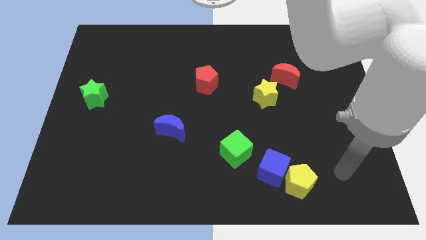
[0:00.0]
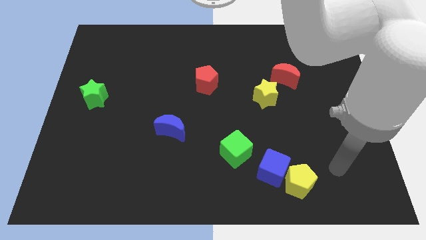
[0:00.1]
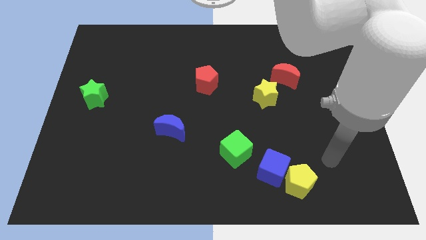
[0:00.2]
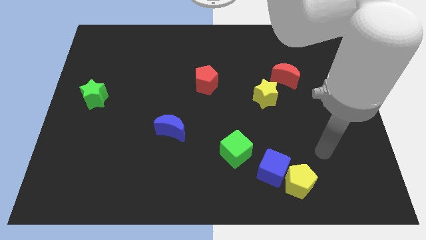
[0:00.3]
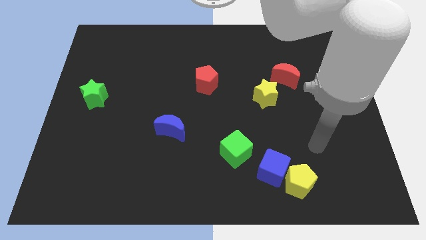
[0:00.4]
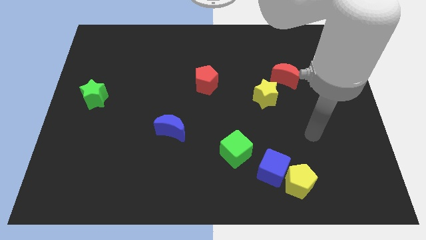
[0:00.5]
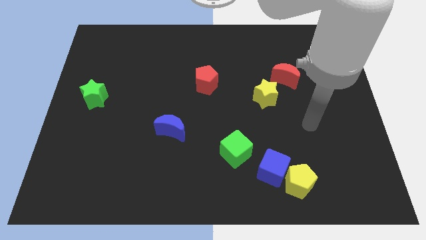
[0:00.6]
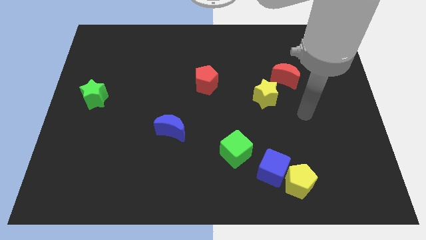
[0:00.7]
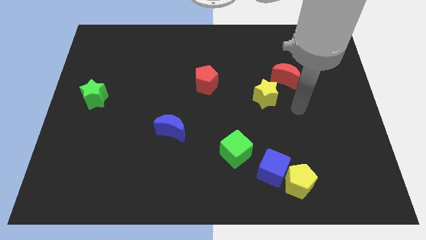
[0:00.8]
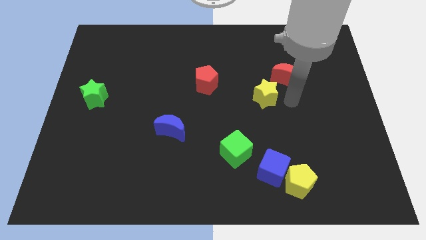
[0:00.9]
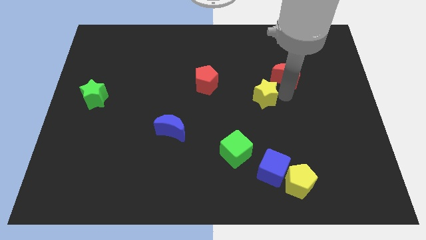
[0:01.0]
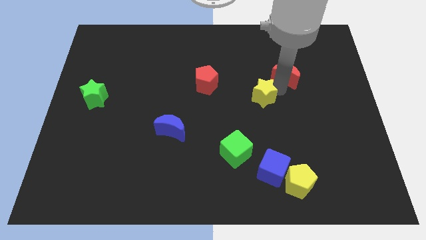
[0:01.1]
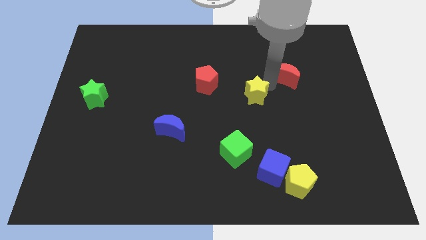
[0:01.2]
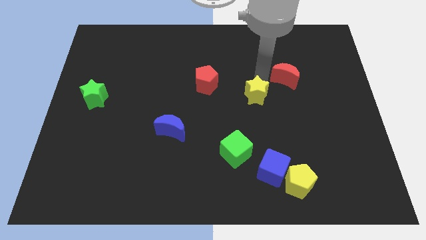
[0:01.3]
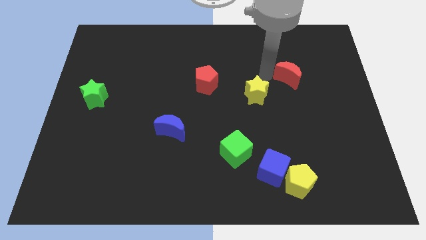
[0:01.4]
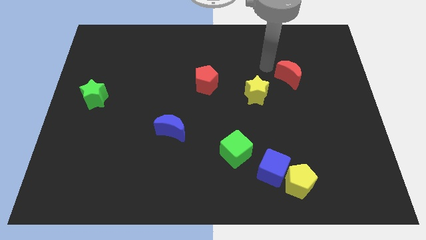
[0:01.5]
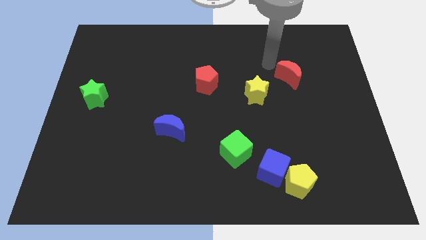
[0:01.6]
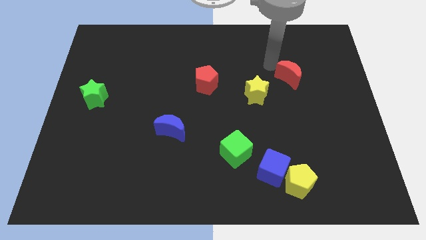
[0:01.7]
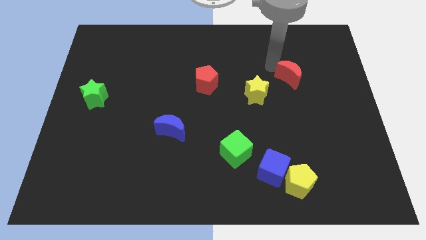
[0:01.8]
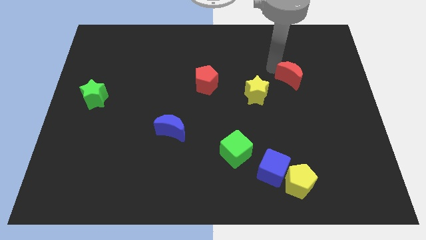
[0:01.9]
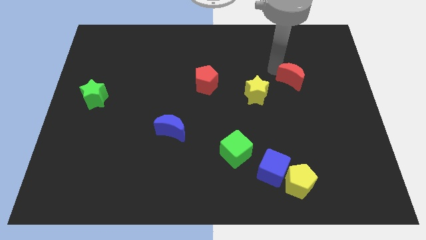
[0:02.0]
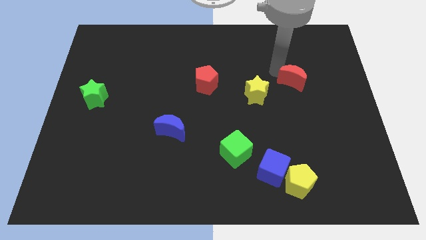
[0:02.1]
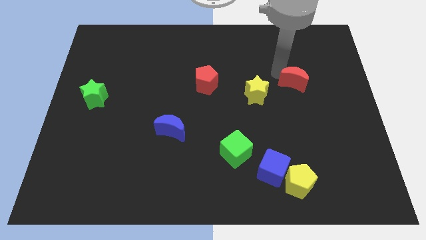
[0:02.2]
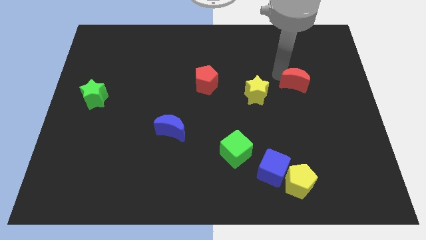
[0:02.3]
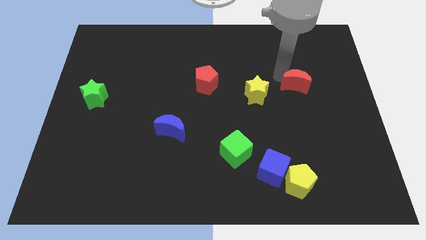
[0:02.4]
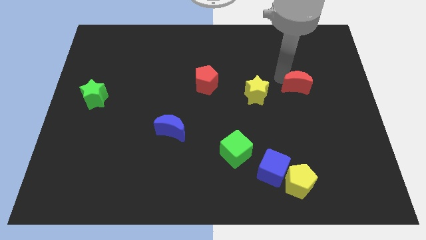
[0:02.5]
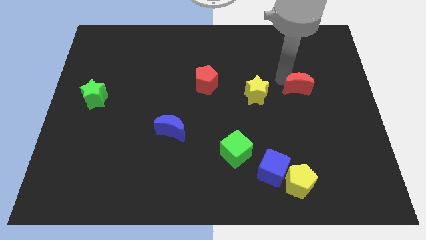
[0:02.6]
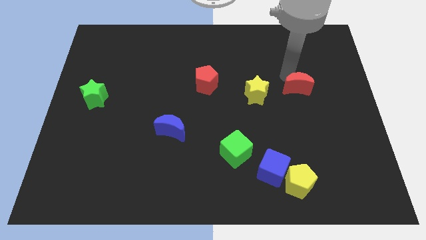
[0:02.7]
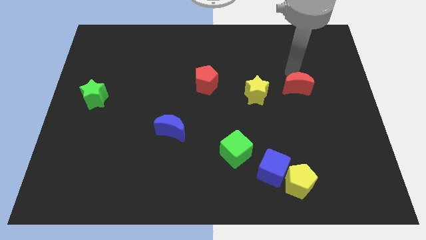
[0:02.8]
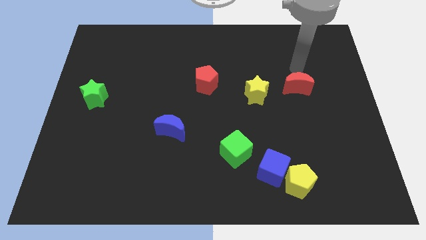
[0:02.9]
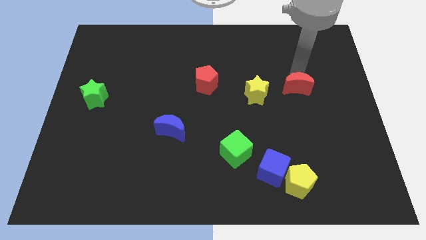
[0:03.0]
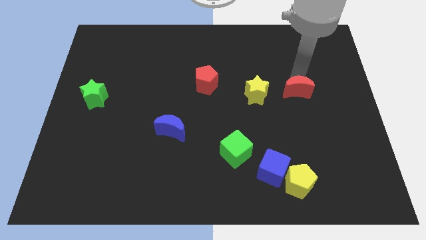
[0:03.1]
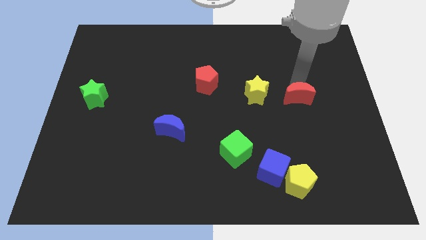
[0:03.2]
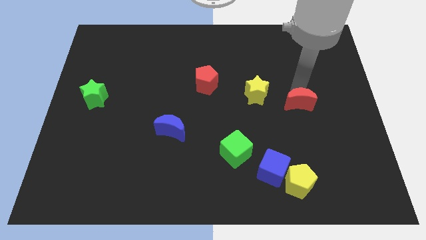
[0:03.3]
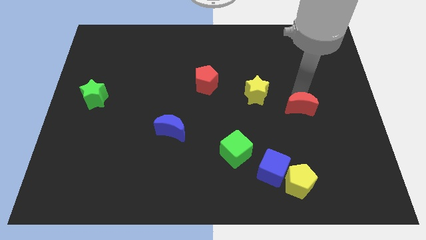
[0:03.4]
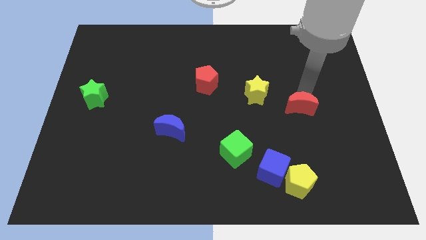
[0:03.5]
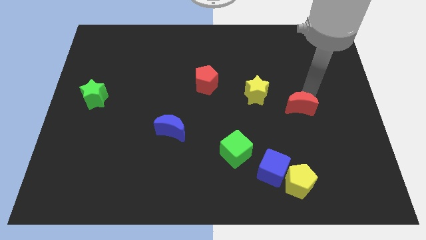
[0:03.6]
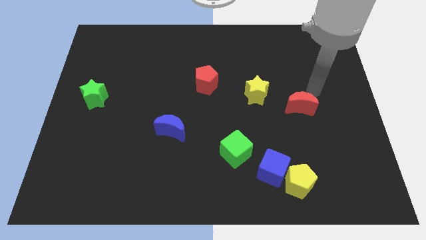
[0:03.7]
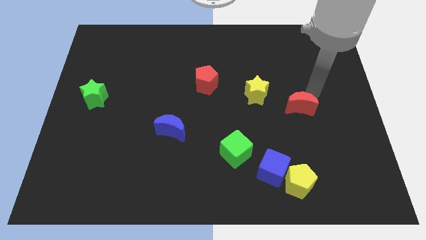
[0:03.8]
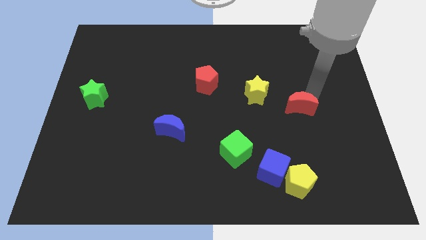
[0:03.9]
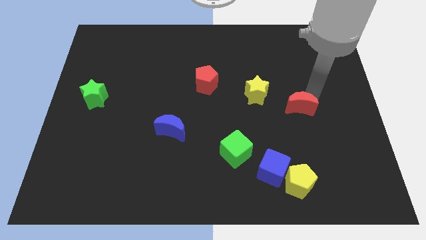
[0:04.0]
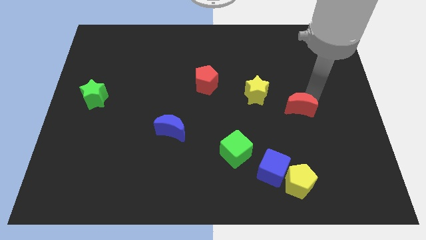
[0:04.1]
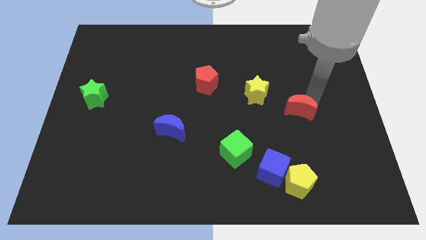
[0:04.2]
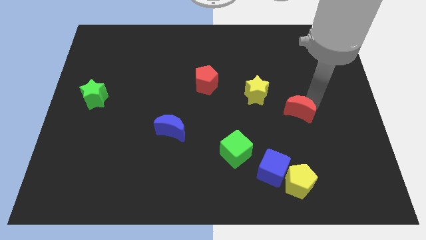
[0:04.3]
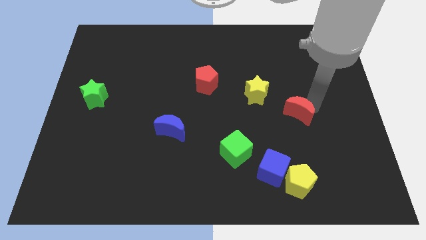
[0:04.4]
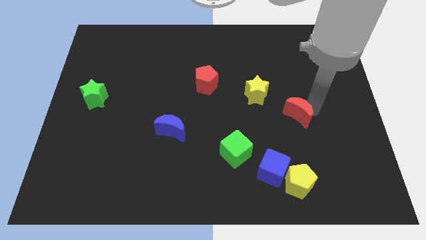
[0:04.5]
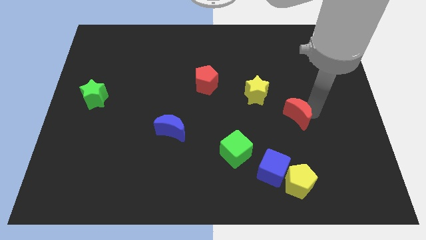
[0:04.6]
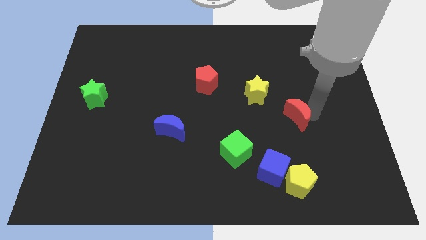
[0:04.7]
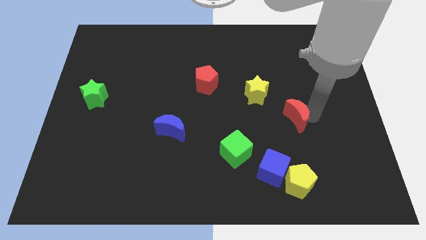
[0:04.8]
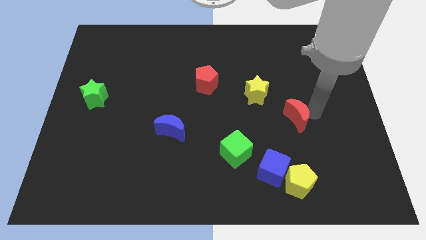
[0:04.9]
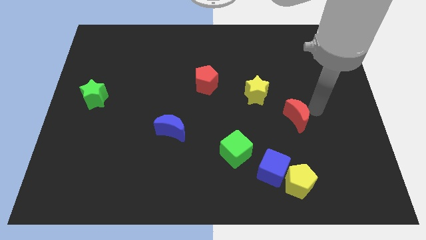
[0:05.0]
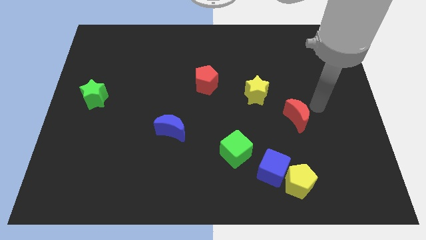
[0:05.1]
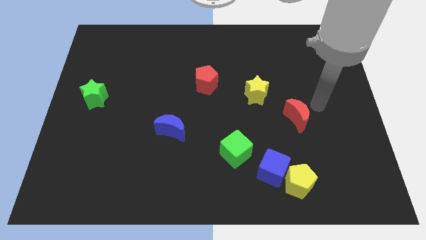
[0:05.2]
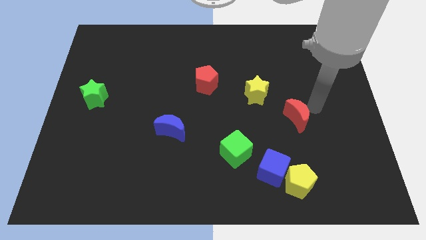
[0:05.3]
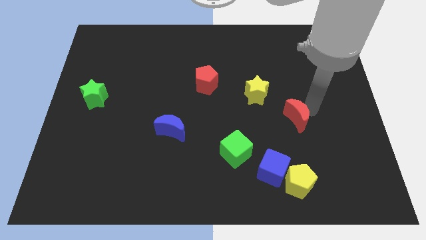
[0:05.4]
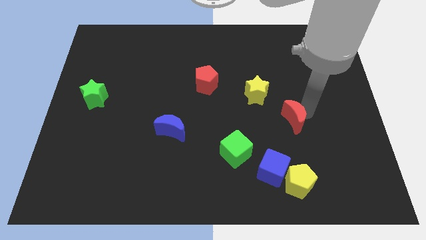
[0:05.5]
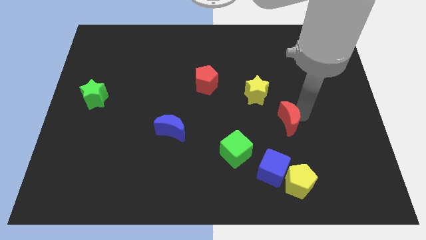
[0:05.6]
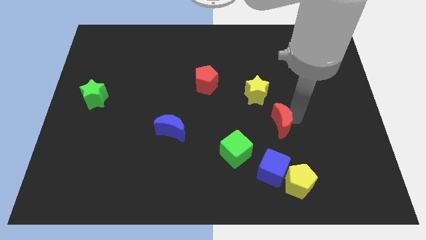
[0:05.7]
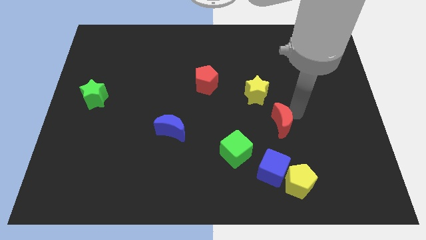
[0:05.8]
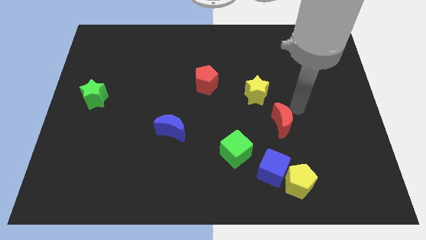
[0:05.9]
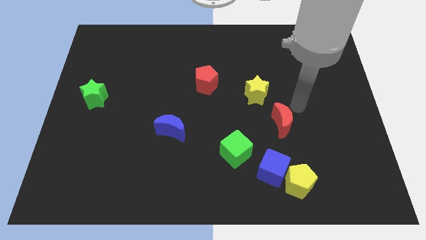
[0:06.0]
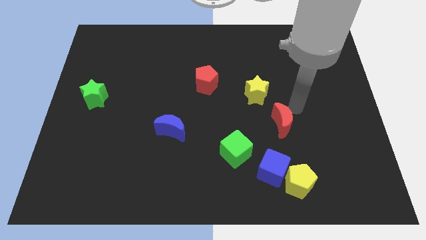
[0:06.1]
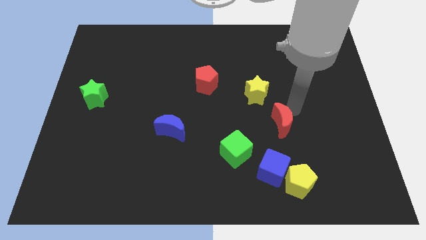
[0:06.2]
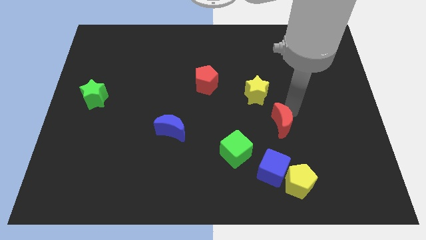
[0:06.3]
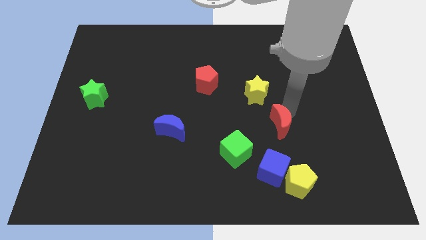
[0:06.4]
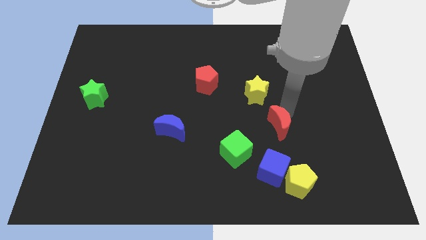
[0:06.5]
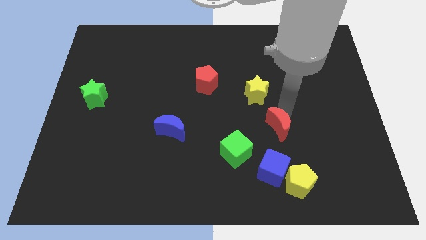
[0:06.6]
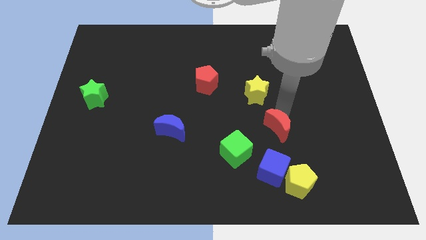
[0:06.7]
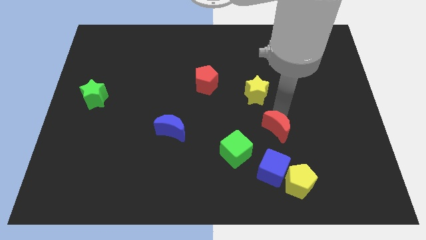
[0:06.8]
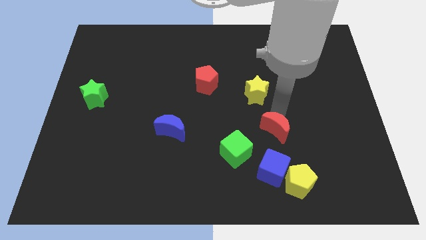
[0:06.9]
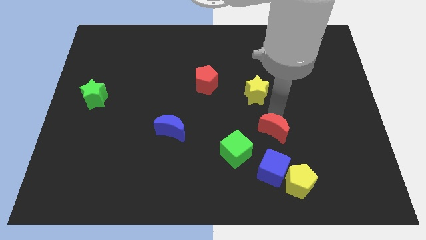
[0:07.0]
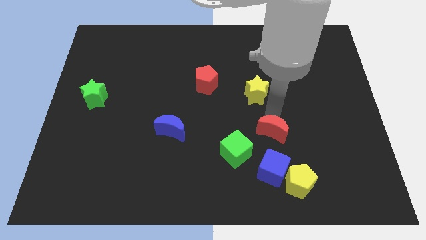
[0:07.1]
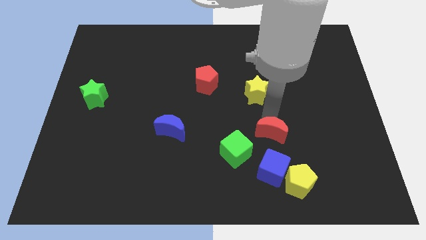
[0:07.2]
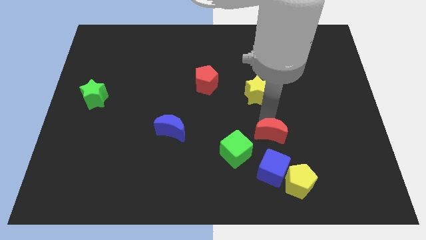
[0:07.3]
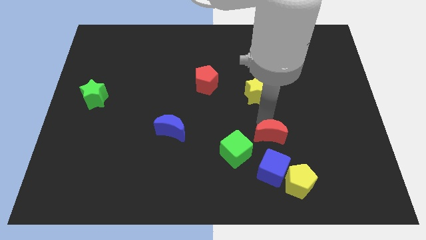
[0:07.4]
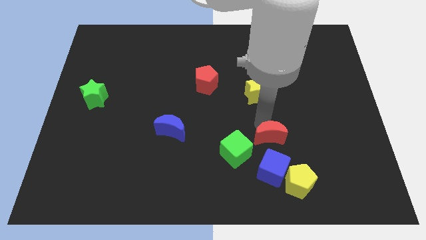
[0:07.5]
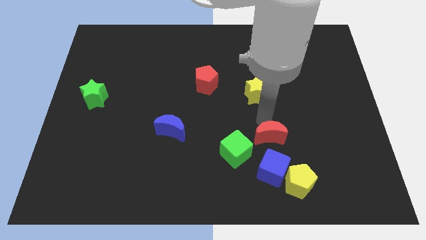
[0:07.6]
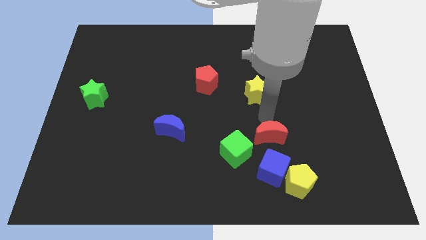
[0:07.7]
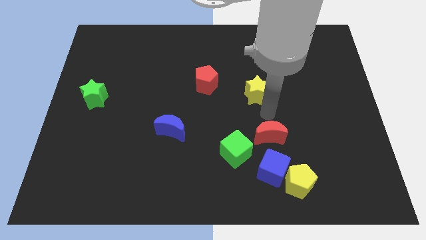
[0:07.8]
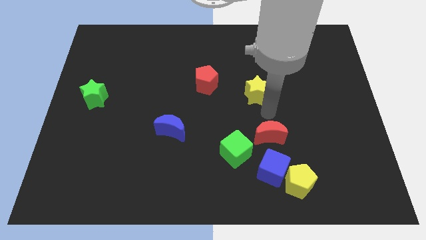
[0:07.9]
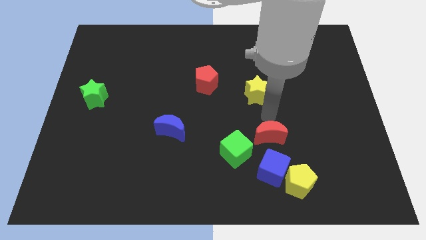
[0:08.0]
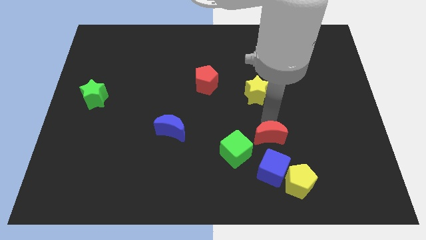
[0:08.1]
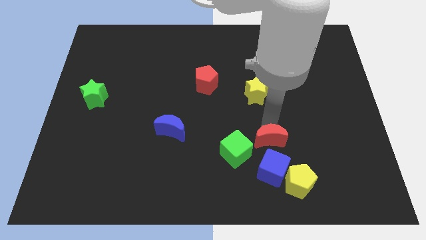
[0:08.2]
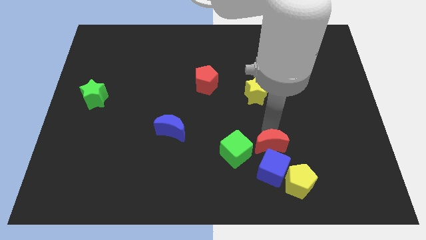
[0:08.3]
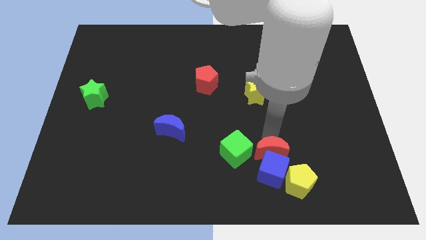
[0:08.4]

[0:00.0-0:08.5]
push the red moon next to the blue cube
